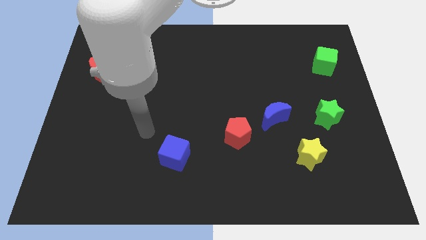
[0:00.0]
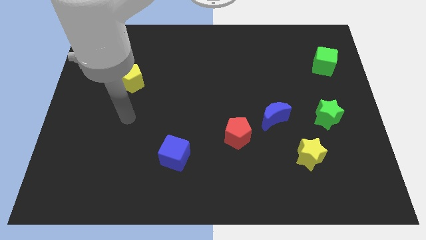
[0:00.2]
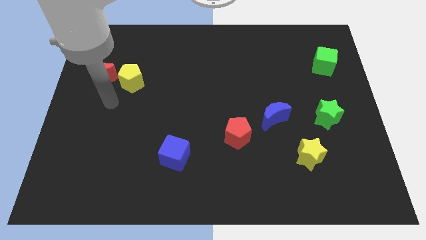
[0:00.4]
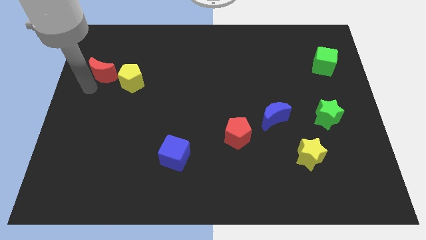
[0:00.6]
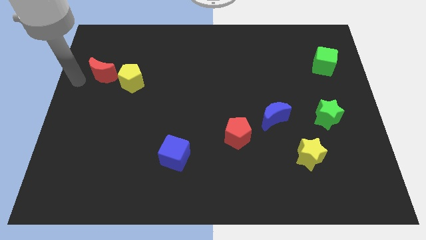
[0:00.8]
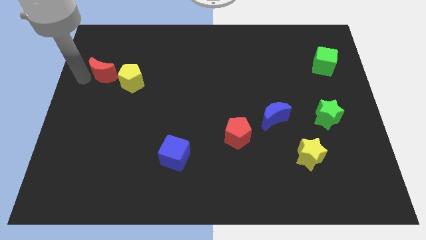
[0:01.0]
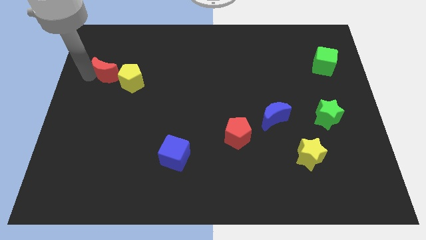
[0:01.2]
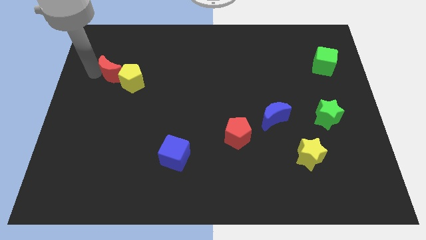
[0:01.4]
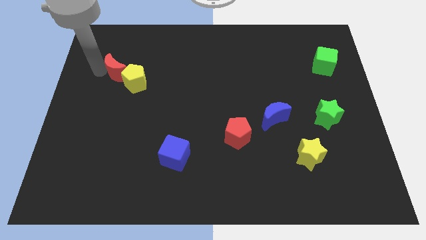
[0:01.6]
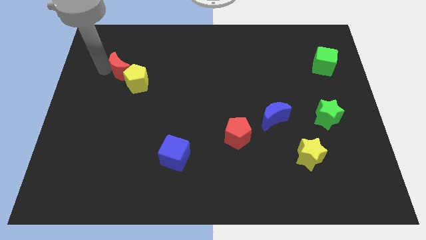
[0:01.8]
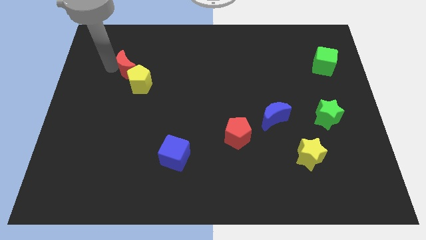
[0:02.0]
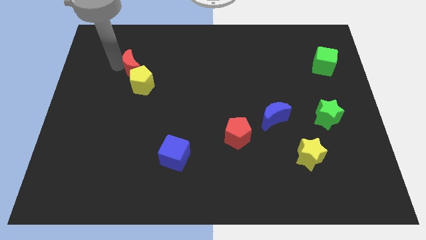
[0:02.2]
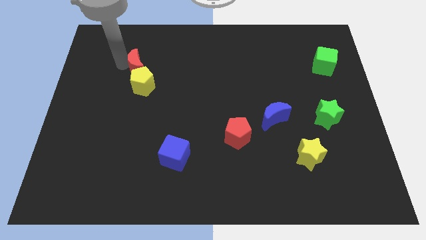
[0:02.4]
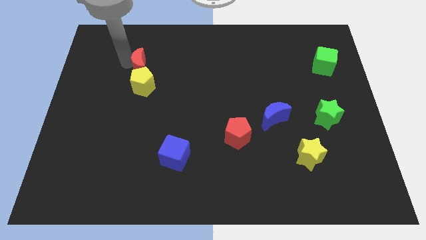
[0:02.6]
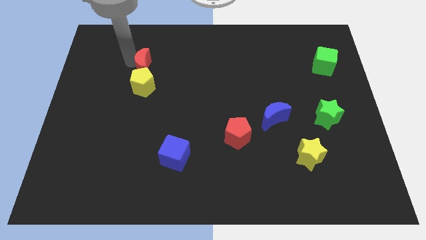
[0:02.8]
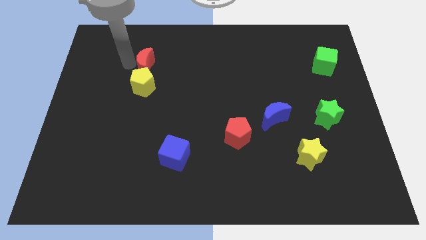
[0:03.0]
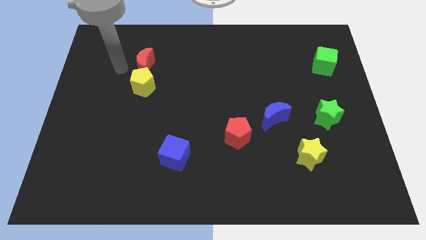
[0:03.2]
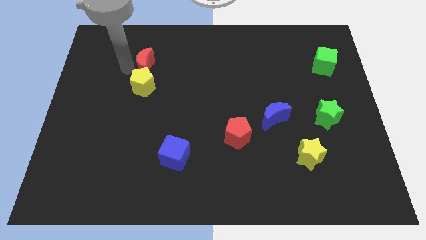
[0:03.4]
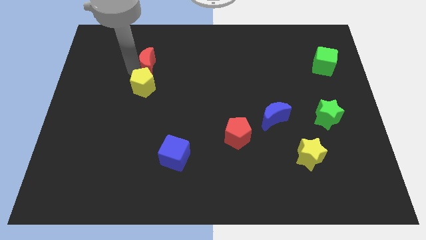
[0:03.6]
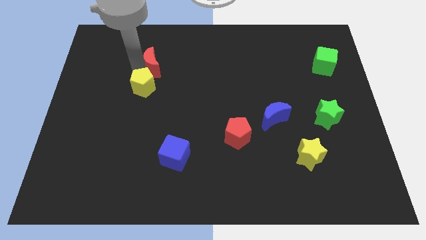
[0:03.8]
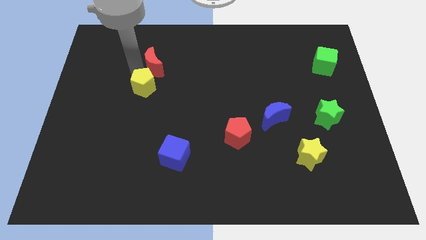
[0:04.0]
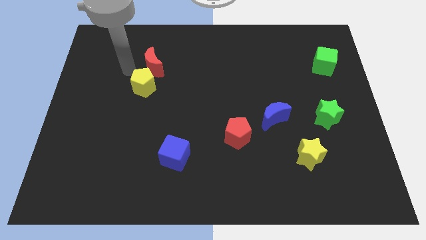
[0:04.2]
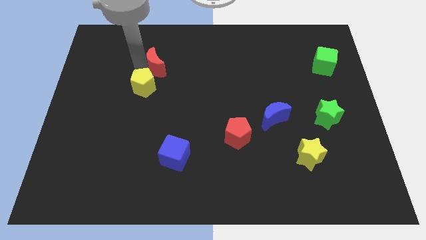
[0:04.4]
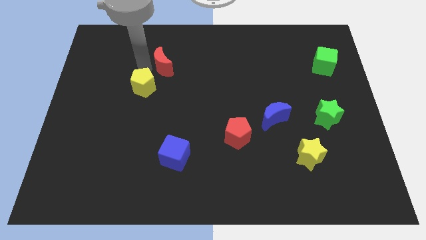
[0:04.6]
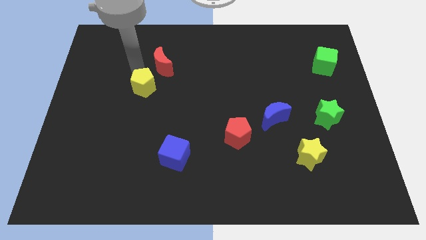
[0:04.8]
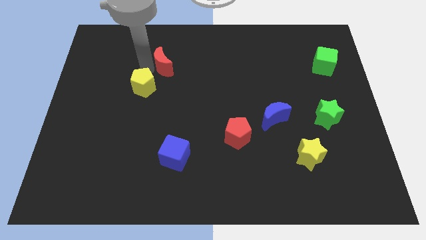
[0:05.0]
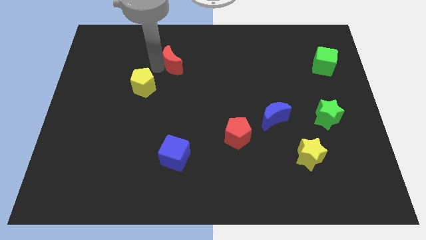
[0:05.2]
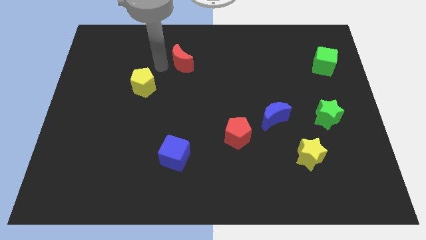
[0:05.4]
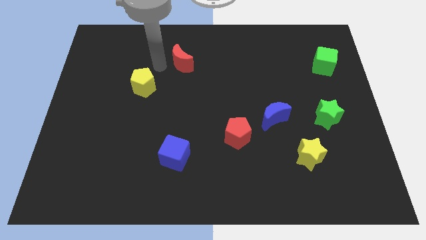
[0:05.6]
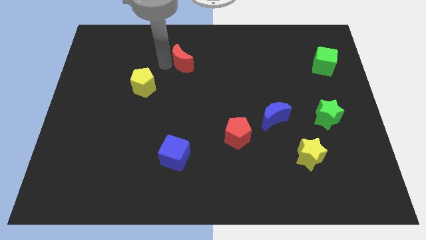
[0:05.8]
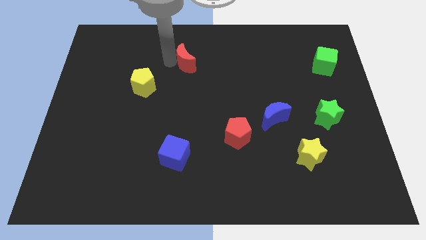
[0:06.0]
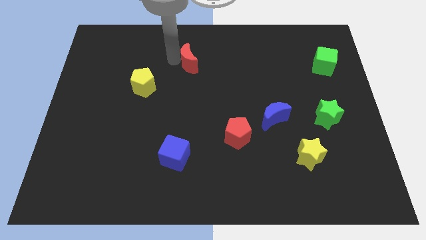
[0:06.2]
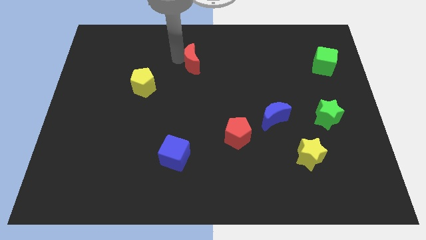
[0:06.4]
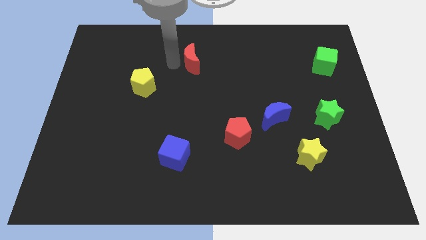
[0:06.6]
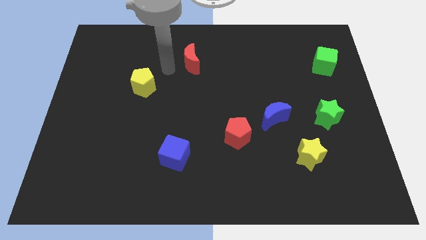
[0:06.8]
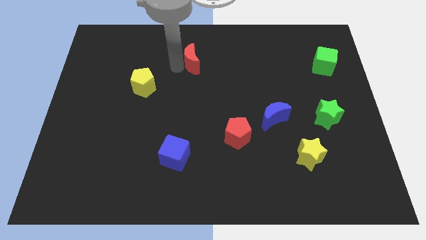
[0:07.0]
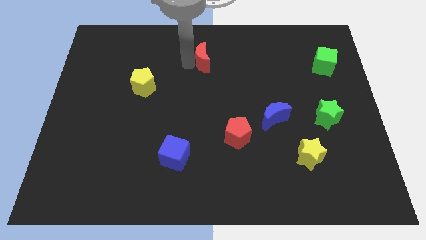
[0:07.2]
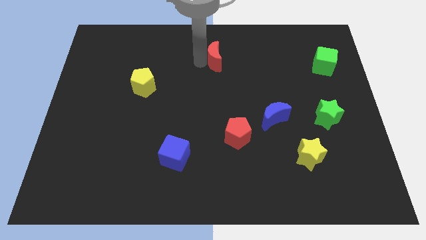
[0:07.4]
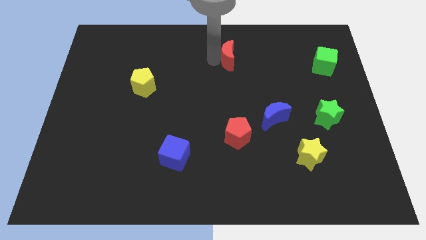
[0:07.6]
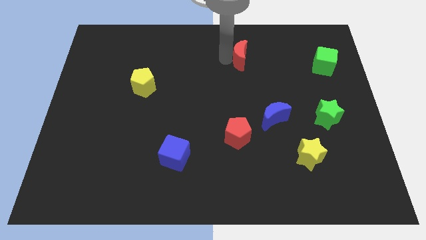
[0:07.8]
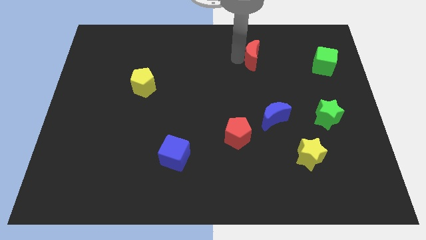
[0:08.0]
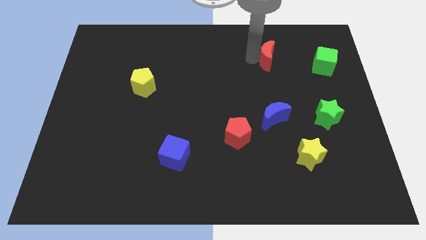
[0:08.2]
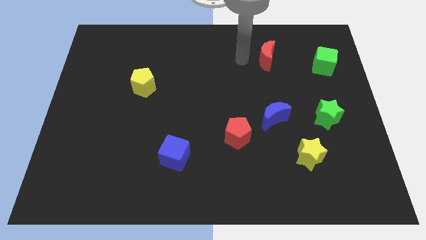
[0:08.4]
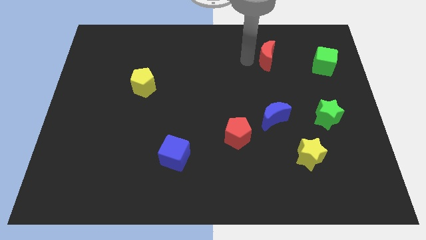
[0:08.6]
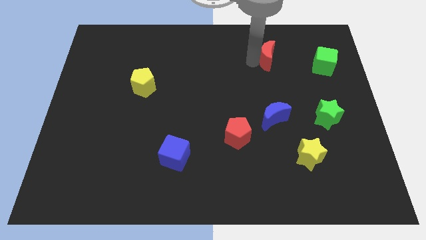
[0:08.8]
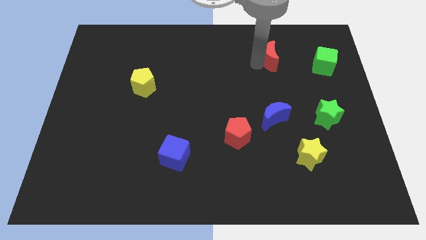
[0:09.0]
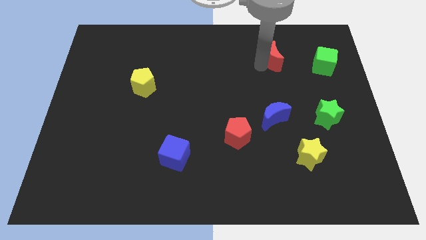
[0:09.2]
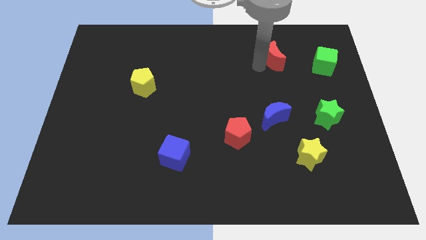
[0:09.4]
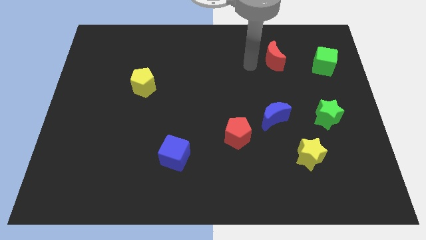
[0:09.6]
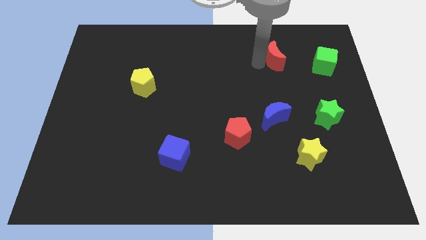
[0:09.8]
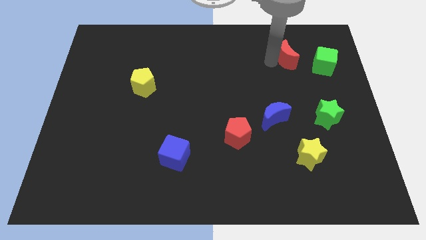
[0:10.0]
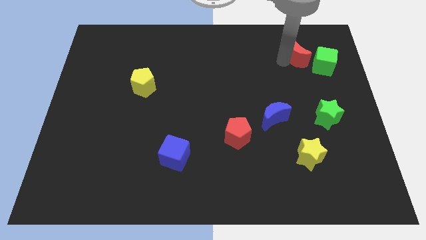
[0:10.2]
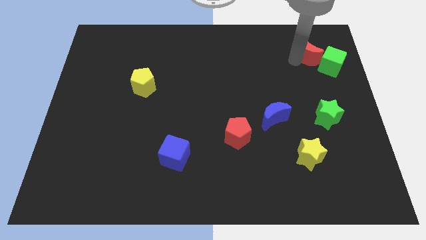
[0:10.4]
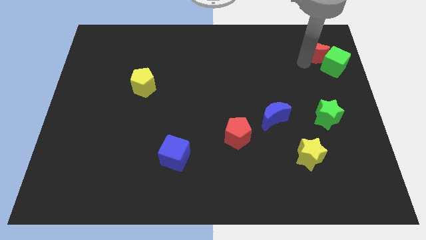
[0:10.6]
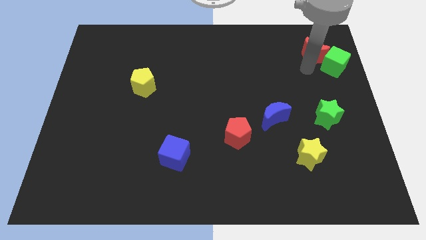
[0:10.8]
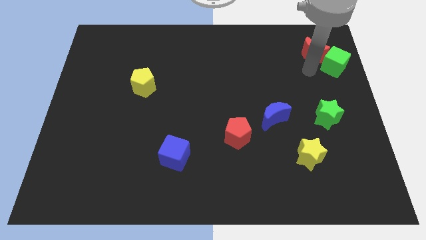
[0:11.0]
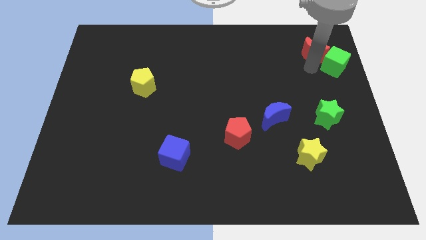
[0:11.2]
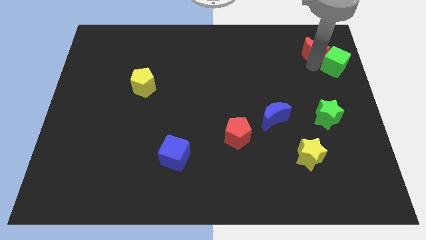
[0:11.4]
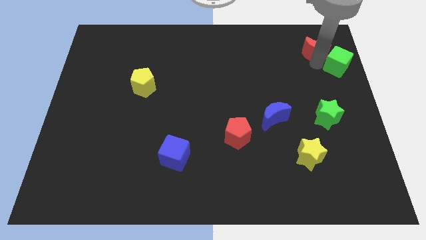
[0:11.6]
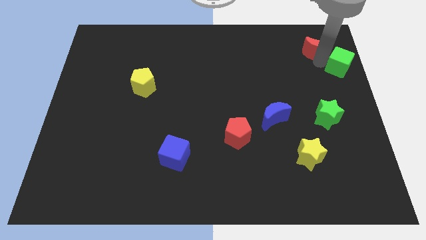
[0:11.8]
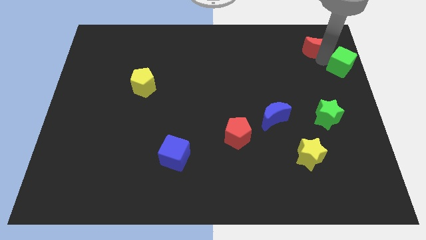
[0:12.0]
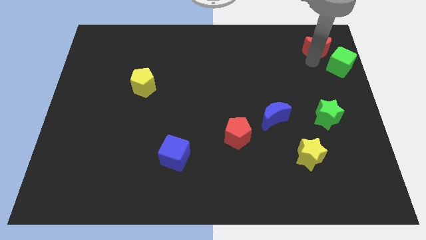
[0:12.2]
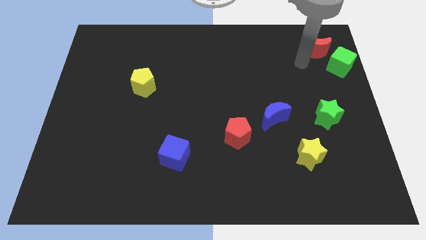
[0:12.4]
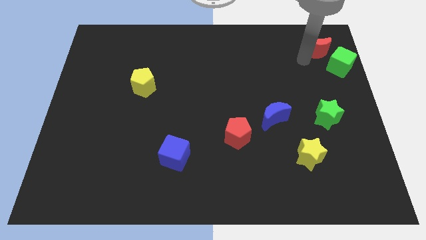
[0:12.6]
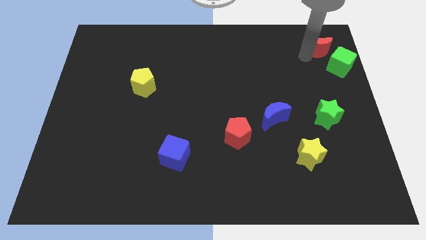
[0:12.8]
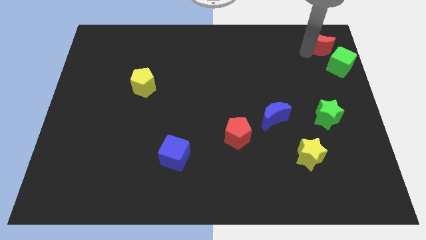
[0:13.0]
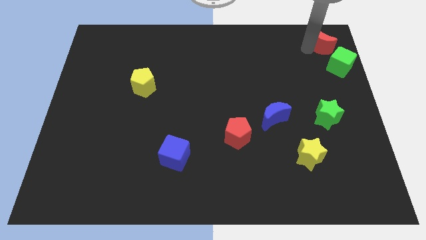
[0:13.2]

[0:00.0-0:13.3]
move the red moon to the top right
